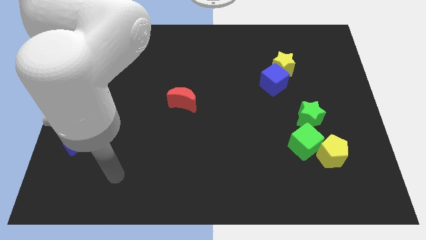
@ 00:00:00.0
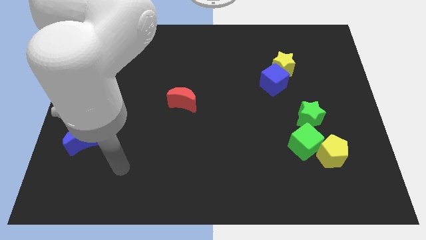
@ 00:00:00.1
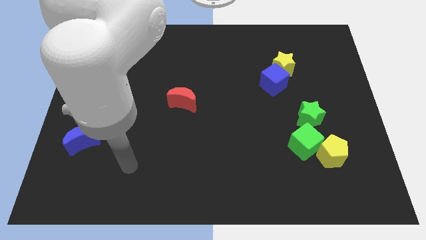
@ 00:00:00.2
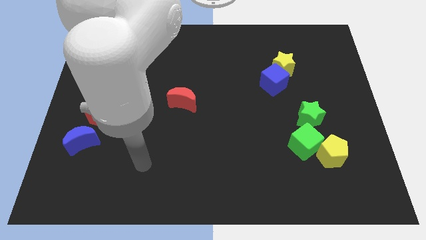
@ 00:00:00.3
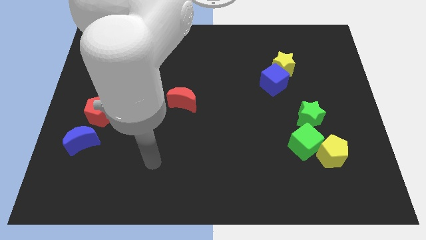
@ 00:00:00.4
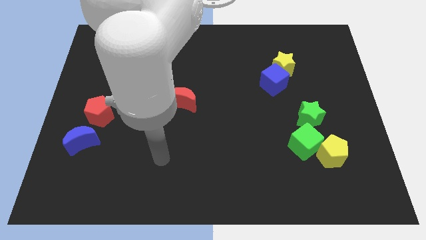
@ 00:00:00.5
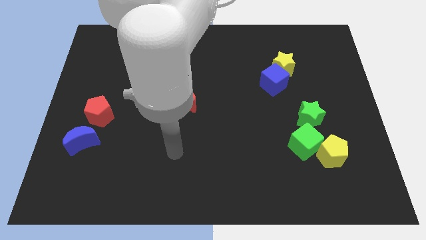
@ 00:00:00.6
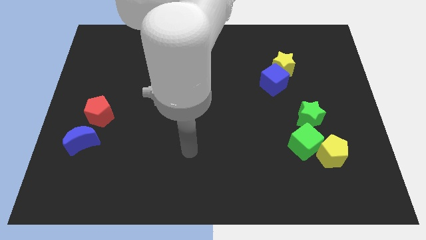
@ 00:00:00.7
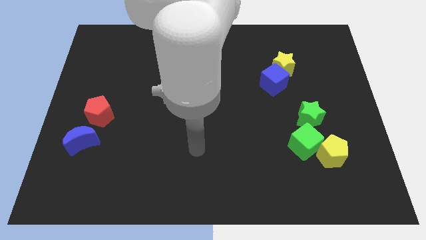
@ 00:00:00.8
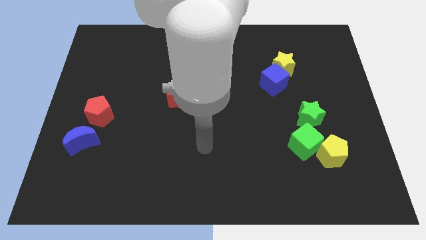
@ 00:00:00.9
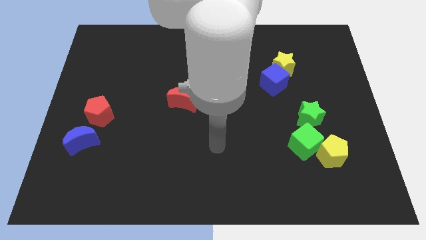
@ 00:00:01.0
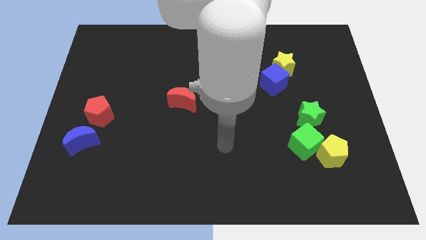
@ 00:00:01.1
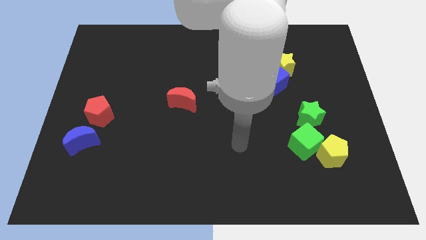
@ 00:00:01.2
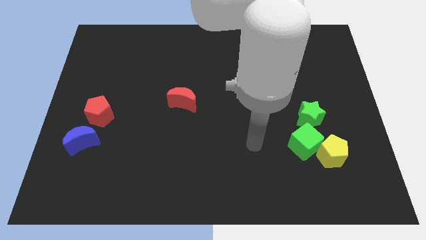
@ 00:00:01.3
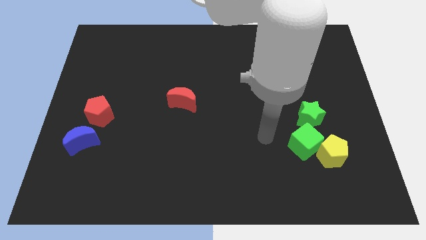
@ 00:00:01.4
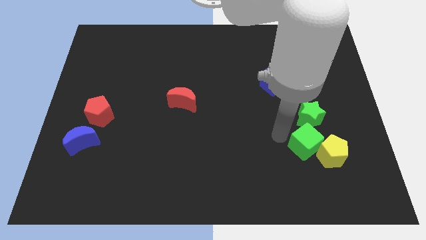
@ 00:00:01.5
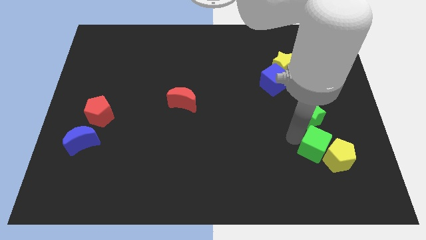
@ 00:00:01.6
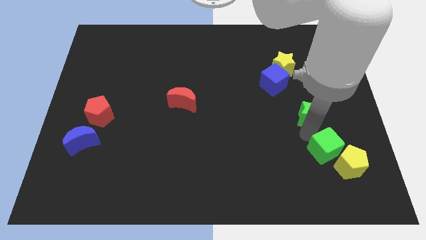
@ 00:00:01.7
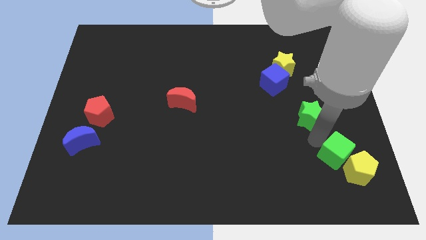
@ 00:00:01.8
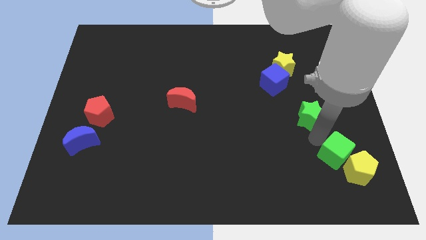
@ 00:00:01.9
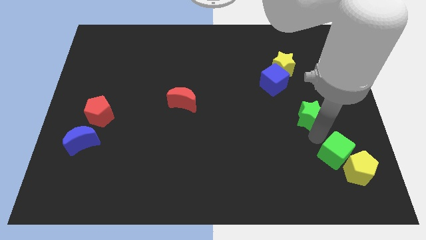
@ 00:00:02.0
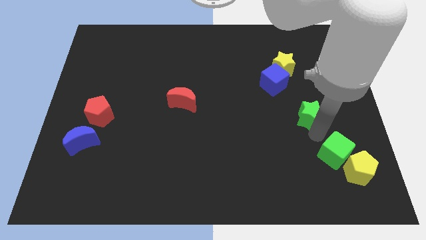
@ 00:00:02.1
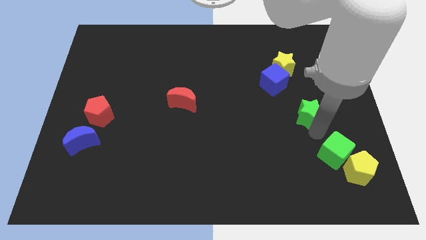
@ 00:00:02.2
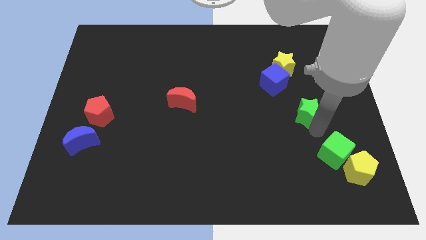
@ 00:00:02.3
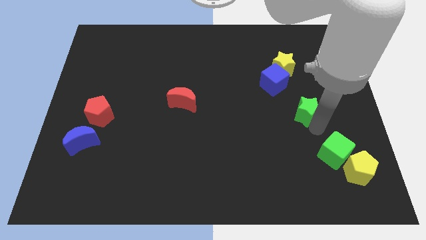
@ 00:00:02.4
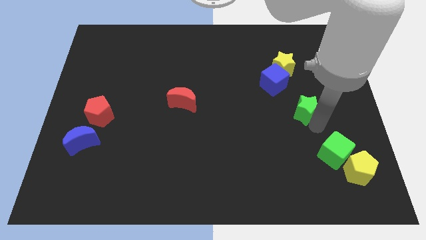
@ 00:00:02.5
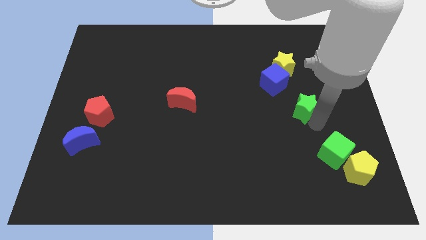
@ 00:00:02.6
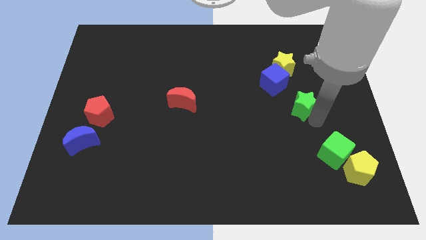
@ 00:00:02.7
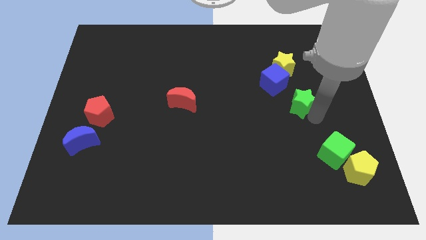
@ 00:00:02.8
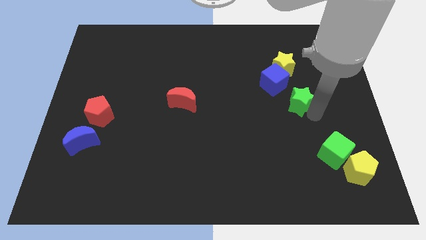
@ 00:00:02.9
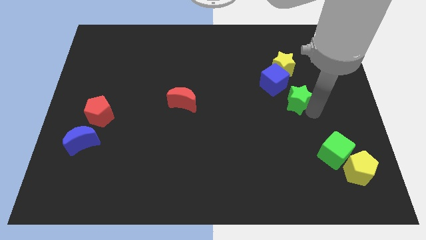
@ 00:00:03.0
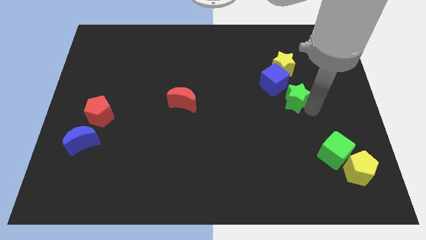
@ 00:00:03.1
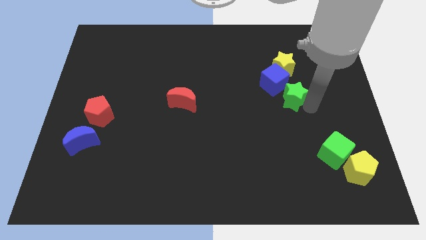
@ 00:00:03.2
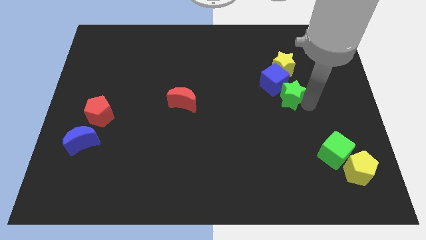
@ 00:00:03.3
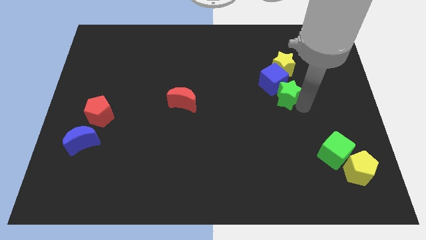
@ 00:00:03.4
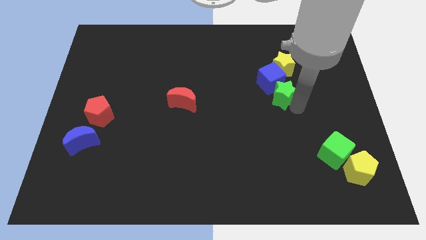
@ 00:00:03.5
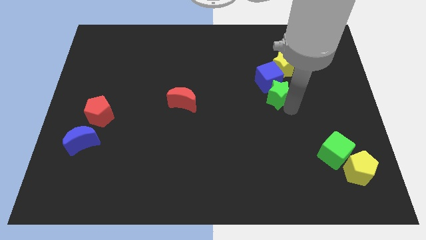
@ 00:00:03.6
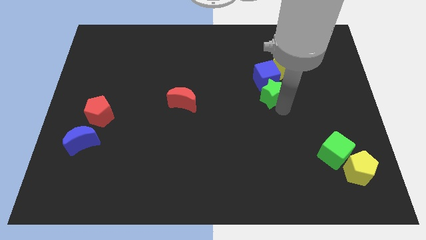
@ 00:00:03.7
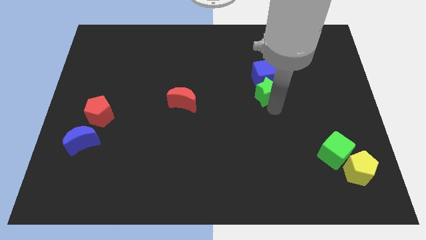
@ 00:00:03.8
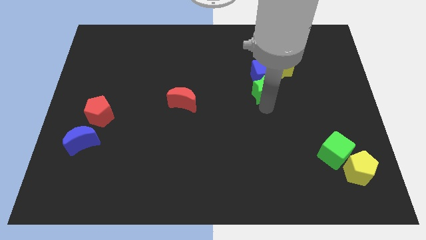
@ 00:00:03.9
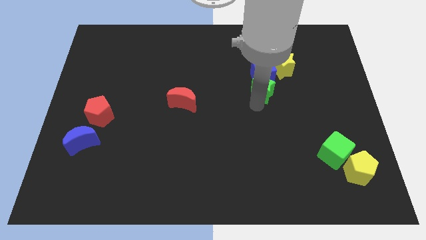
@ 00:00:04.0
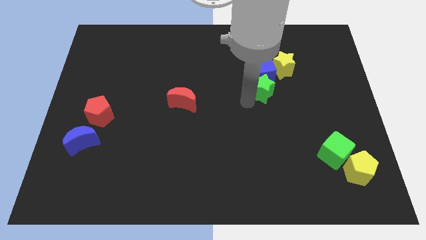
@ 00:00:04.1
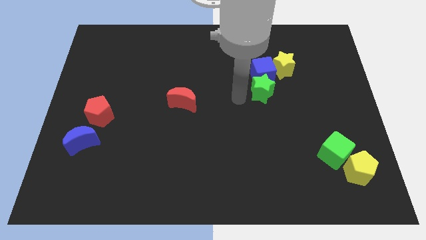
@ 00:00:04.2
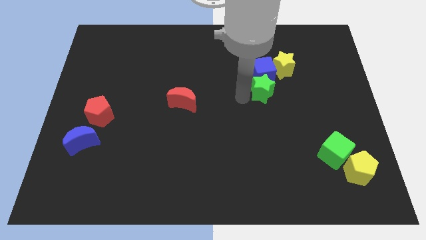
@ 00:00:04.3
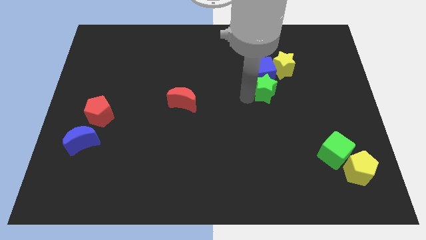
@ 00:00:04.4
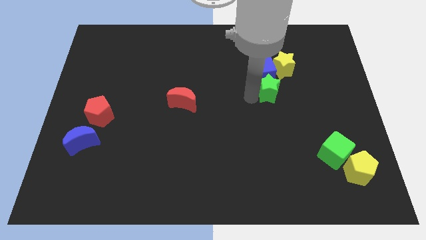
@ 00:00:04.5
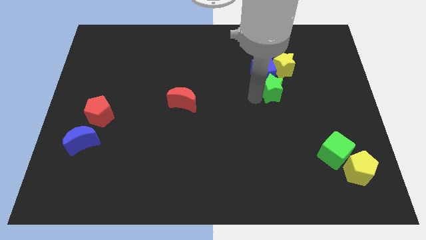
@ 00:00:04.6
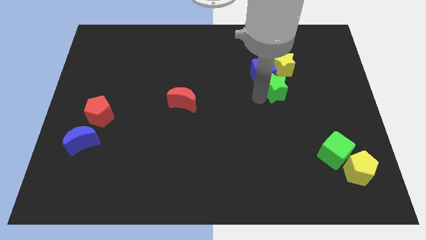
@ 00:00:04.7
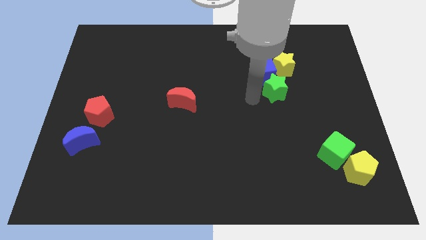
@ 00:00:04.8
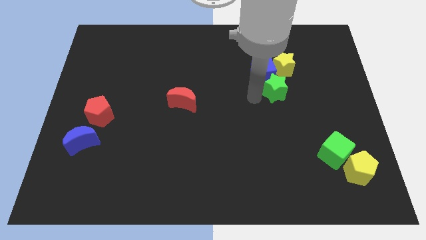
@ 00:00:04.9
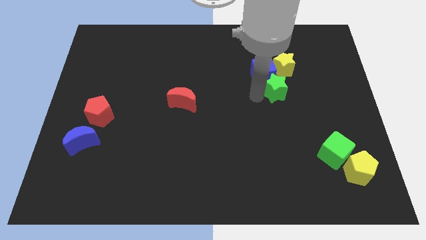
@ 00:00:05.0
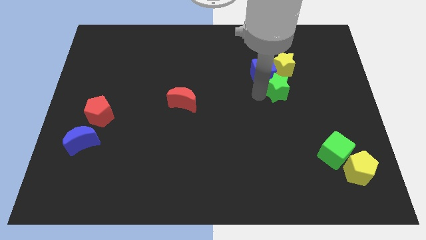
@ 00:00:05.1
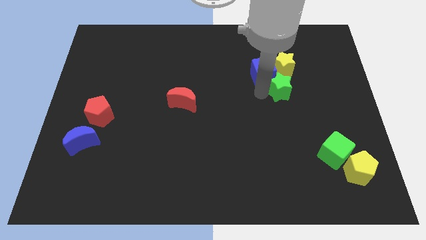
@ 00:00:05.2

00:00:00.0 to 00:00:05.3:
slightly move the green star upwards

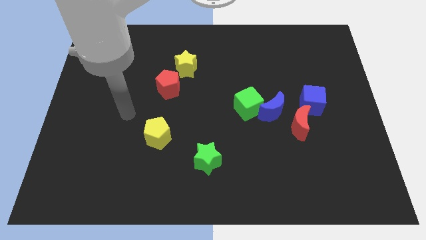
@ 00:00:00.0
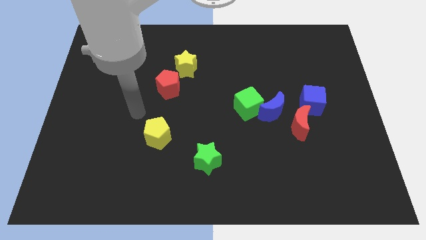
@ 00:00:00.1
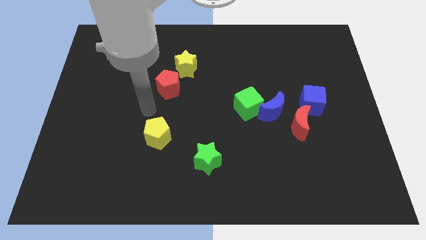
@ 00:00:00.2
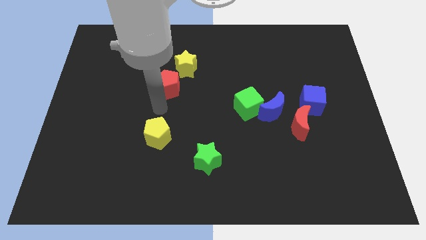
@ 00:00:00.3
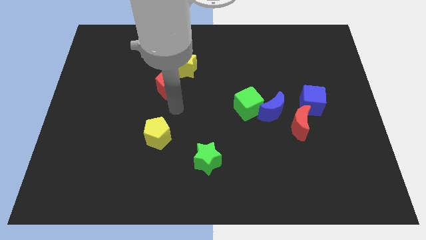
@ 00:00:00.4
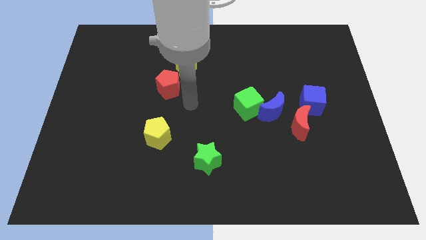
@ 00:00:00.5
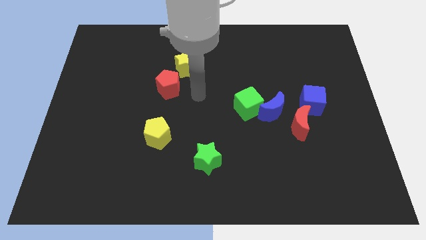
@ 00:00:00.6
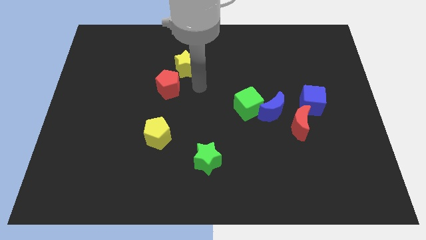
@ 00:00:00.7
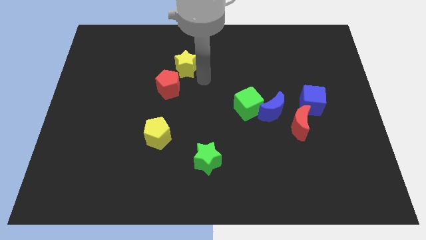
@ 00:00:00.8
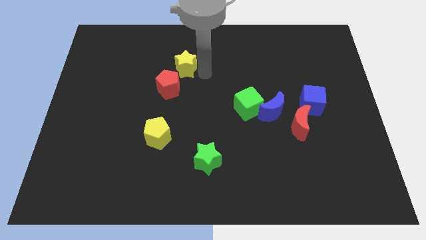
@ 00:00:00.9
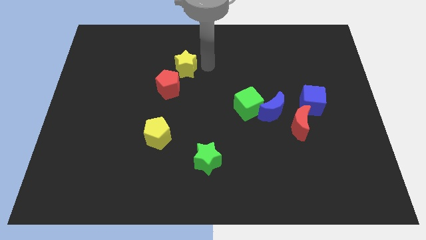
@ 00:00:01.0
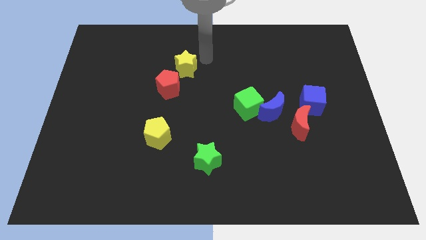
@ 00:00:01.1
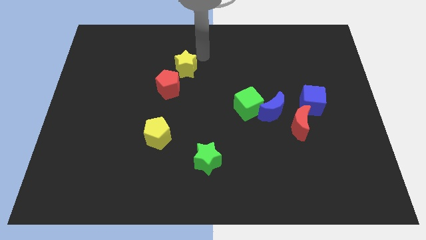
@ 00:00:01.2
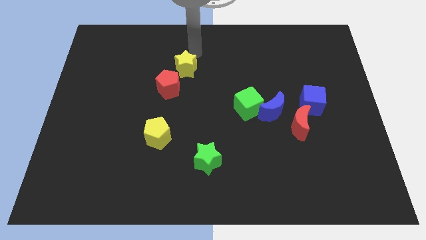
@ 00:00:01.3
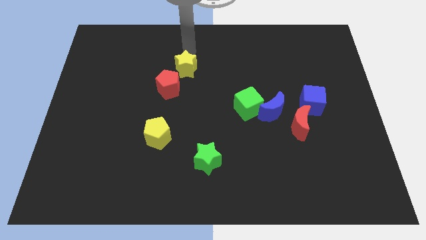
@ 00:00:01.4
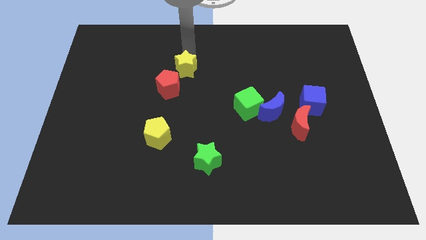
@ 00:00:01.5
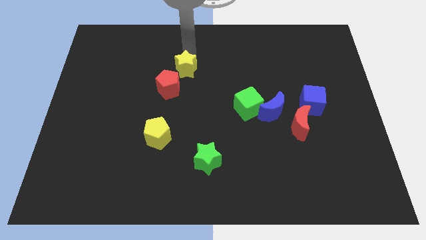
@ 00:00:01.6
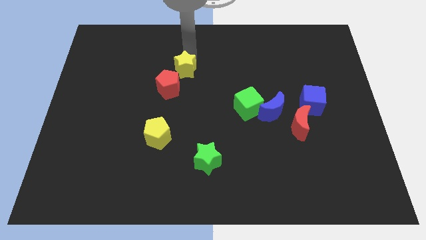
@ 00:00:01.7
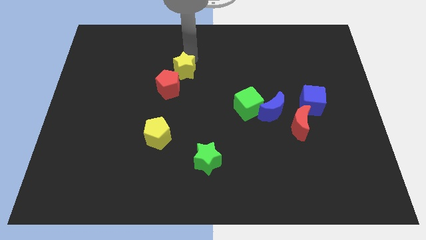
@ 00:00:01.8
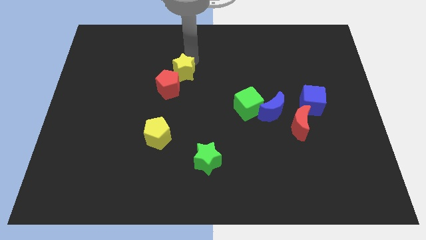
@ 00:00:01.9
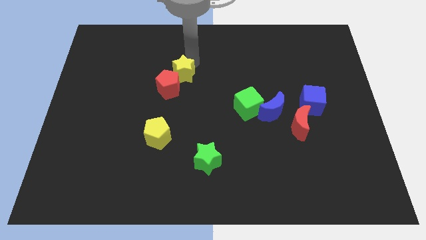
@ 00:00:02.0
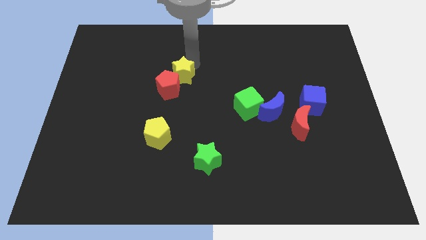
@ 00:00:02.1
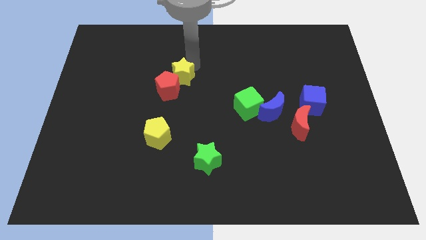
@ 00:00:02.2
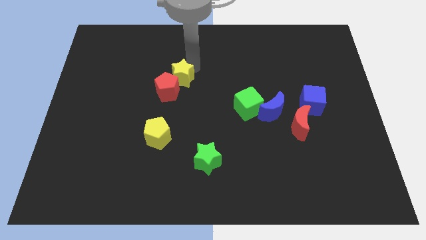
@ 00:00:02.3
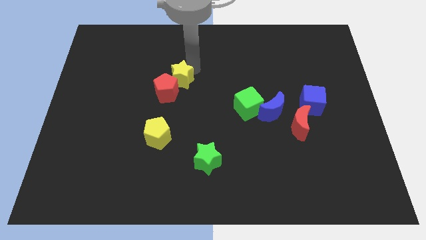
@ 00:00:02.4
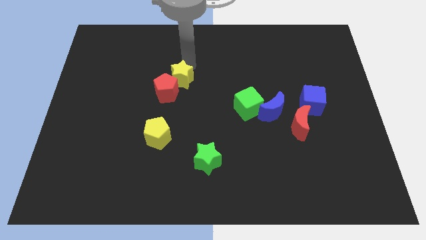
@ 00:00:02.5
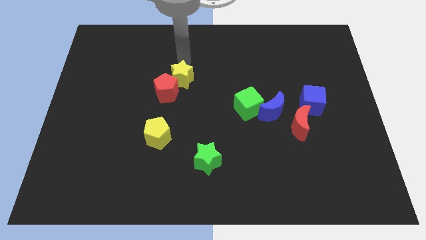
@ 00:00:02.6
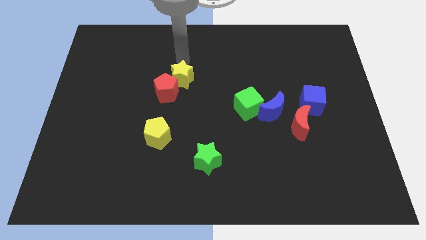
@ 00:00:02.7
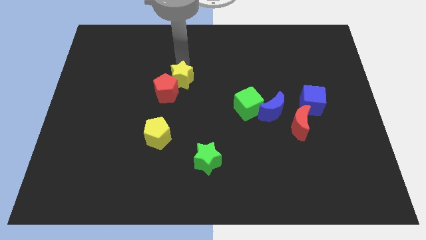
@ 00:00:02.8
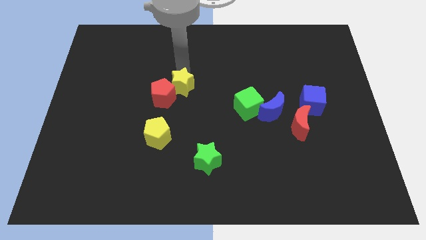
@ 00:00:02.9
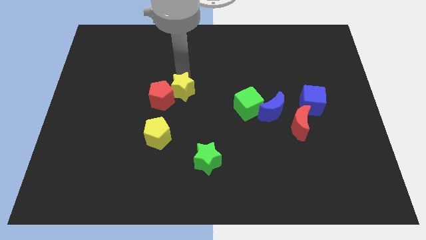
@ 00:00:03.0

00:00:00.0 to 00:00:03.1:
slightly push the yellow star downwards
